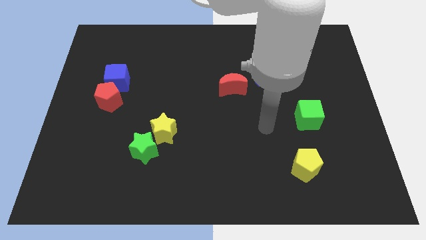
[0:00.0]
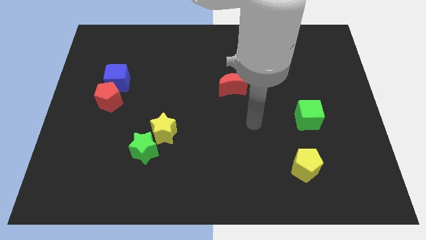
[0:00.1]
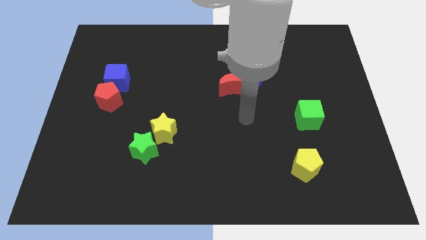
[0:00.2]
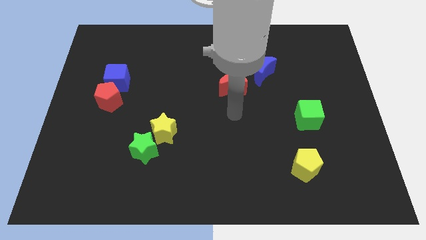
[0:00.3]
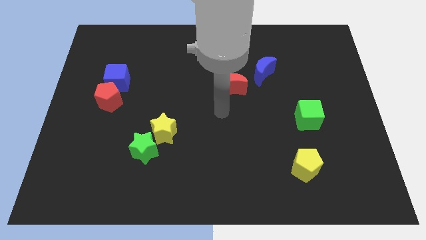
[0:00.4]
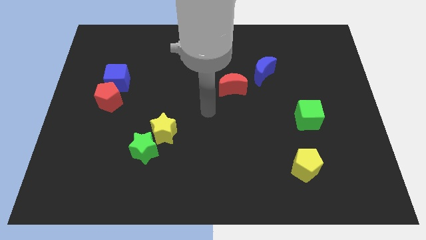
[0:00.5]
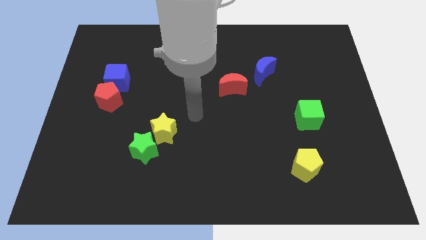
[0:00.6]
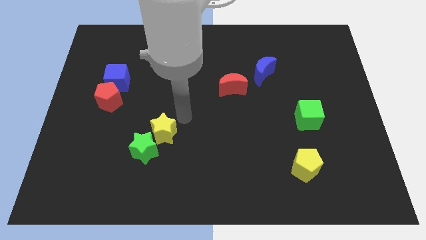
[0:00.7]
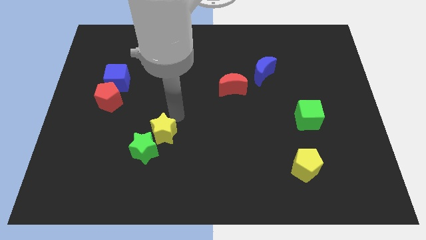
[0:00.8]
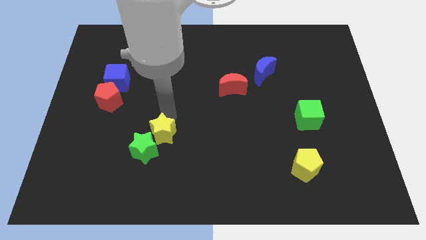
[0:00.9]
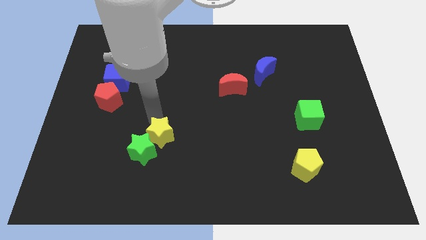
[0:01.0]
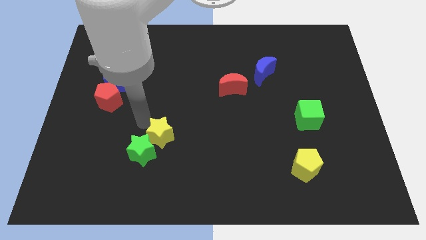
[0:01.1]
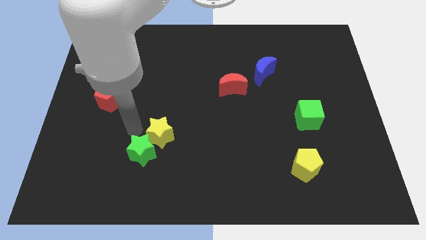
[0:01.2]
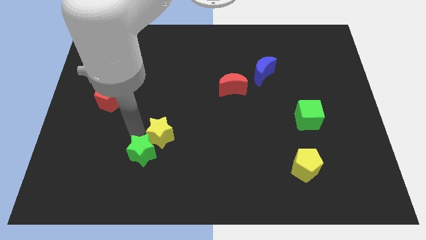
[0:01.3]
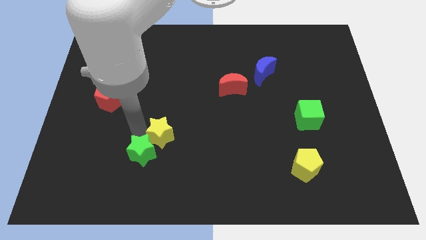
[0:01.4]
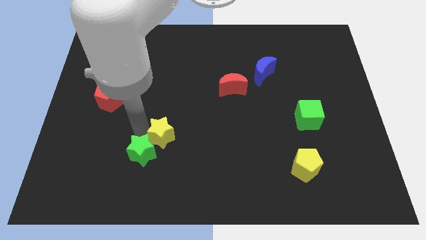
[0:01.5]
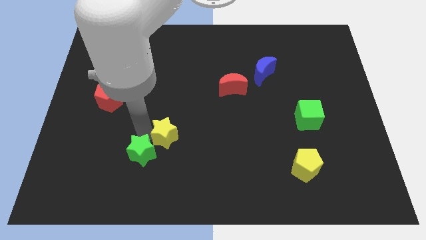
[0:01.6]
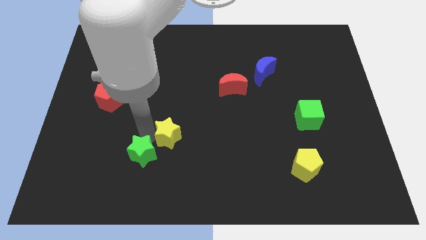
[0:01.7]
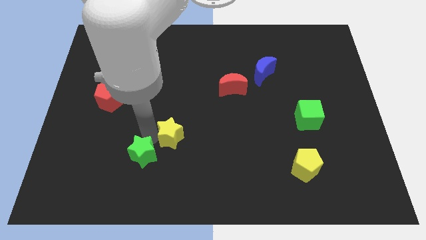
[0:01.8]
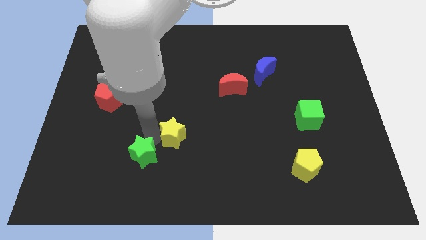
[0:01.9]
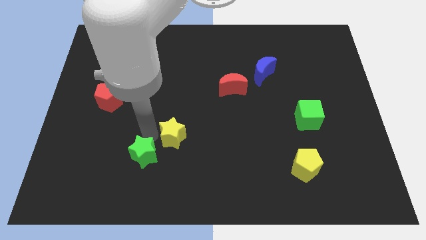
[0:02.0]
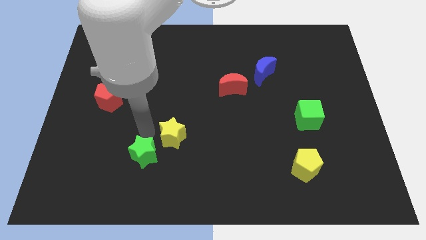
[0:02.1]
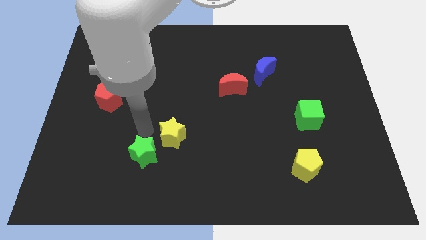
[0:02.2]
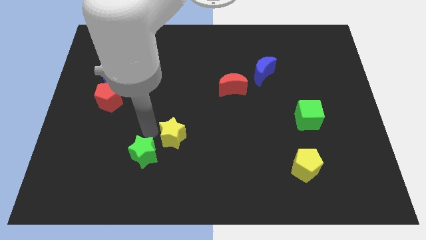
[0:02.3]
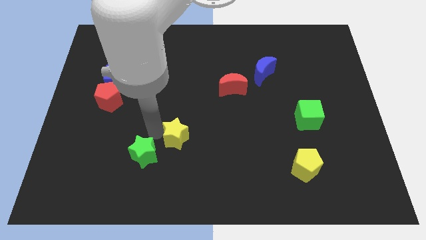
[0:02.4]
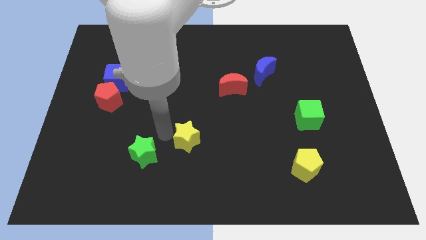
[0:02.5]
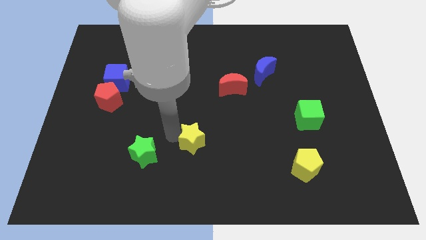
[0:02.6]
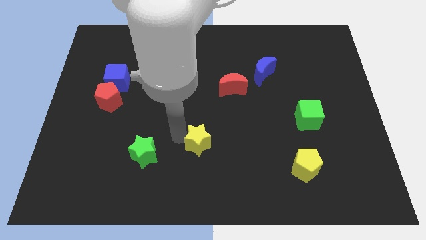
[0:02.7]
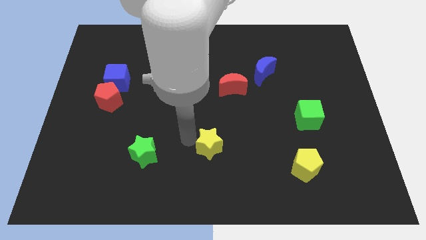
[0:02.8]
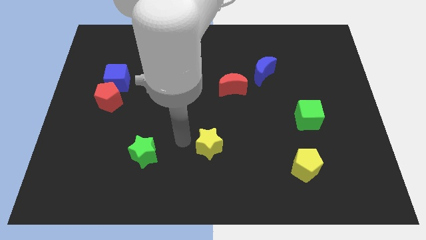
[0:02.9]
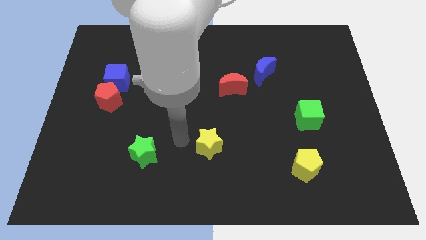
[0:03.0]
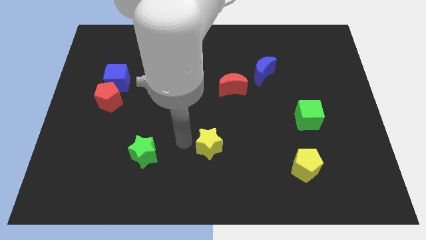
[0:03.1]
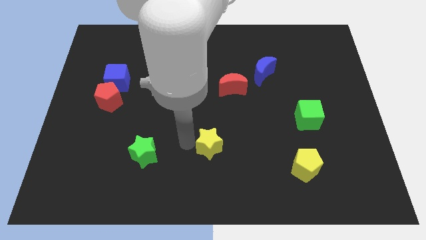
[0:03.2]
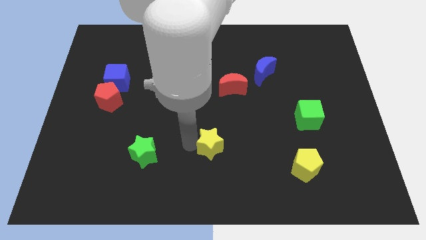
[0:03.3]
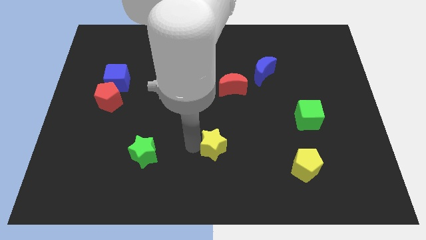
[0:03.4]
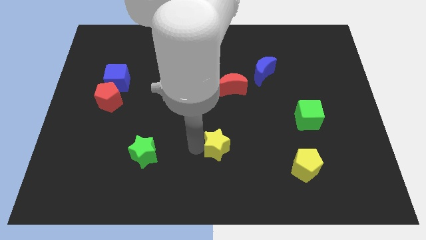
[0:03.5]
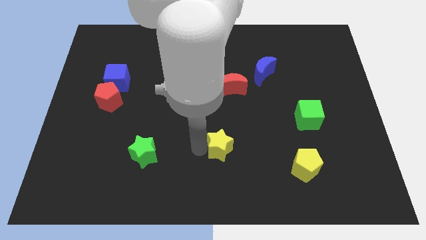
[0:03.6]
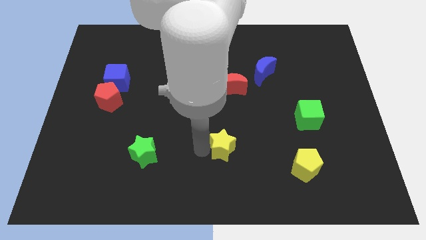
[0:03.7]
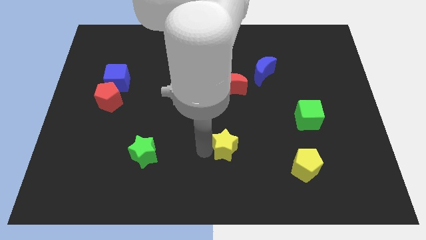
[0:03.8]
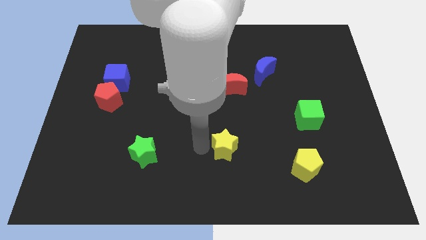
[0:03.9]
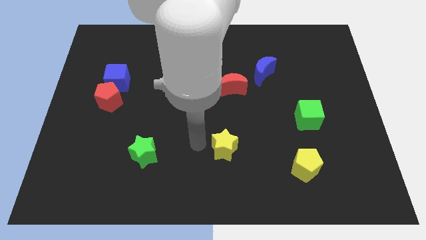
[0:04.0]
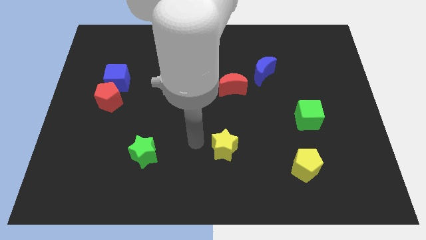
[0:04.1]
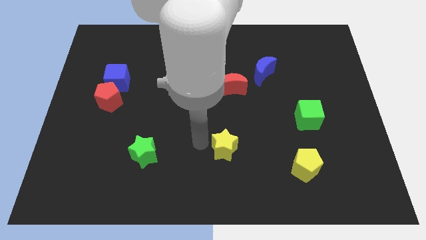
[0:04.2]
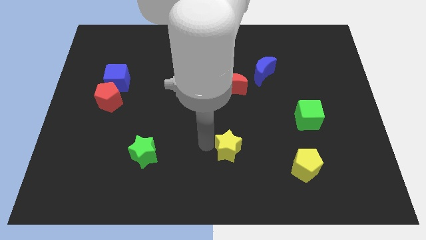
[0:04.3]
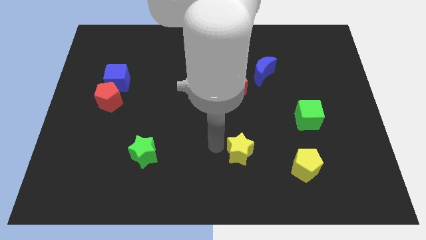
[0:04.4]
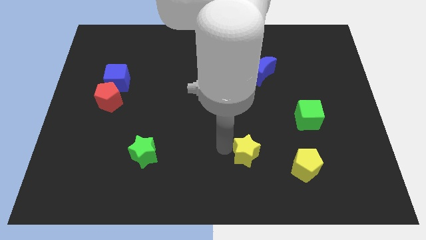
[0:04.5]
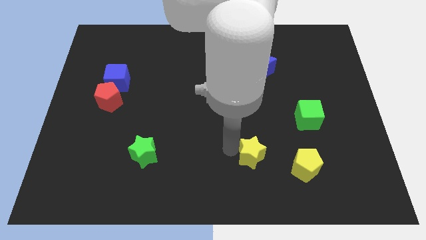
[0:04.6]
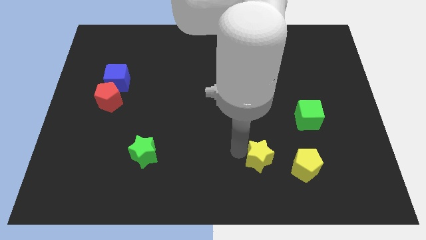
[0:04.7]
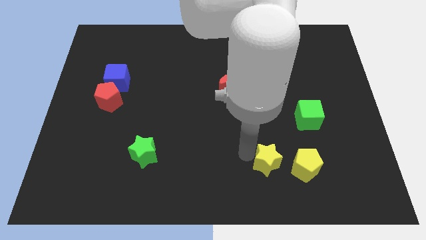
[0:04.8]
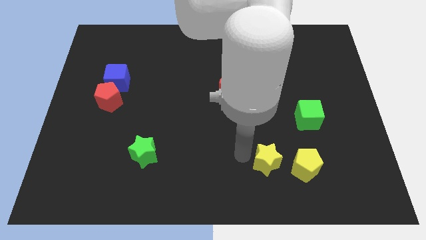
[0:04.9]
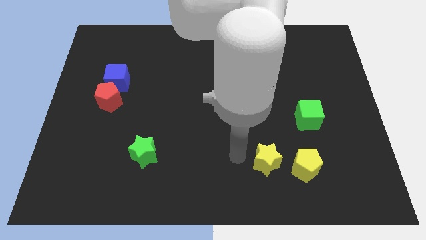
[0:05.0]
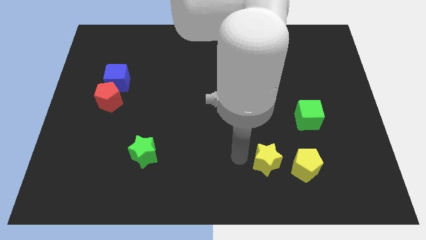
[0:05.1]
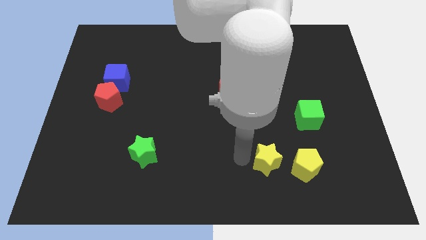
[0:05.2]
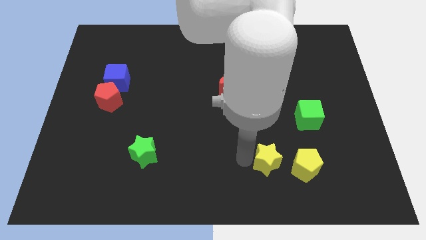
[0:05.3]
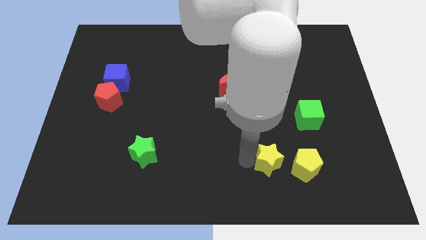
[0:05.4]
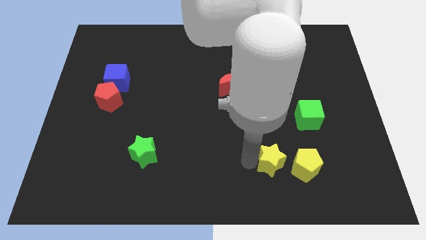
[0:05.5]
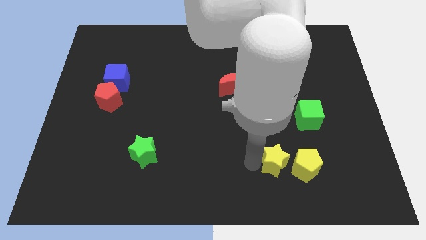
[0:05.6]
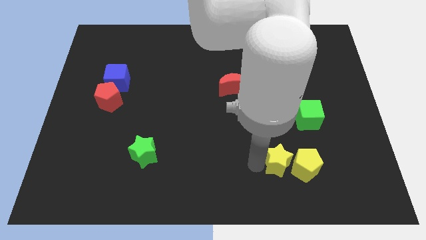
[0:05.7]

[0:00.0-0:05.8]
move the yellow star close to the yellow pentagon

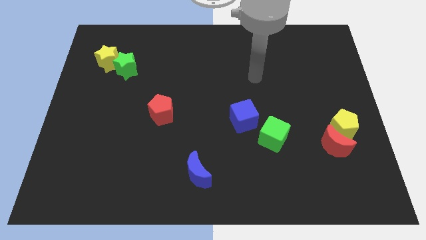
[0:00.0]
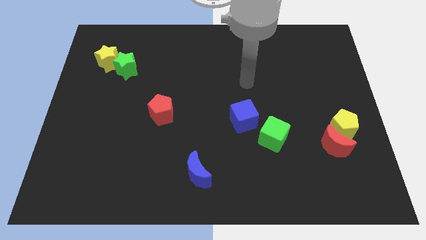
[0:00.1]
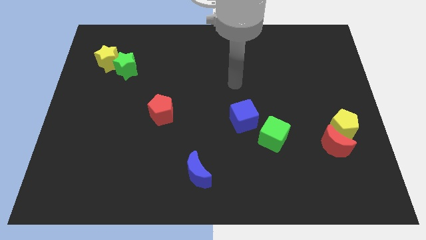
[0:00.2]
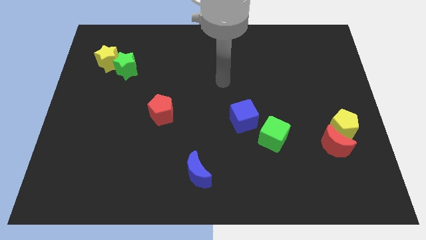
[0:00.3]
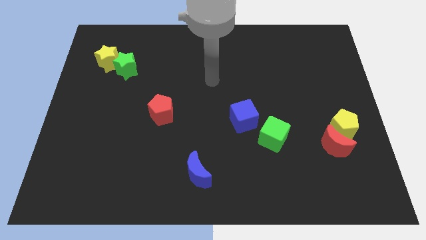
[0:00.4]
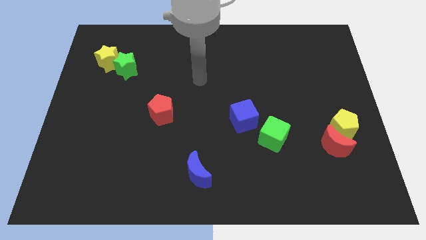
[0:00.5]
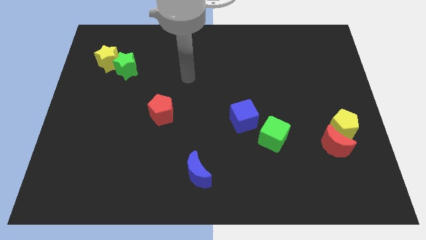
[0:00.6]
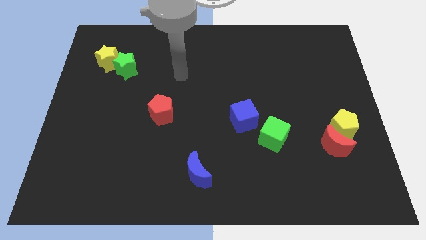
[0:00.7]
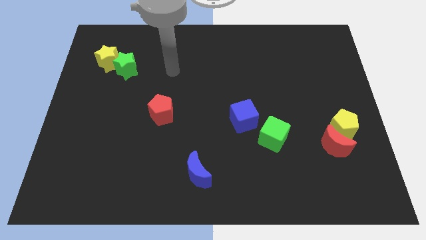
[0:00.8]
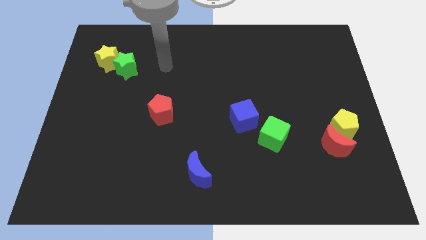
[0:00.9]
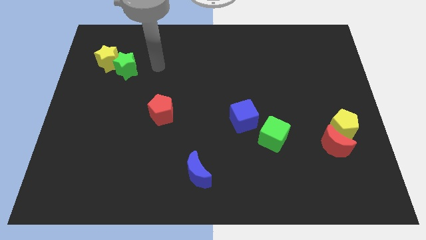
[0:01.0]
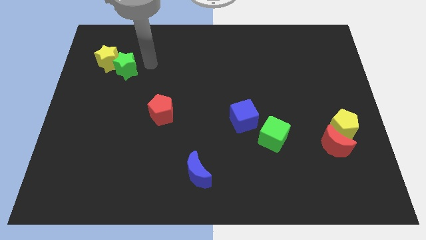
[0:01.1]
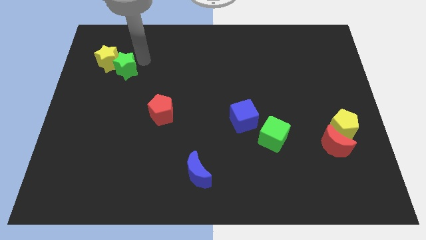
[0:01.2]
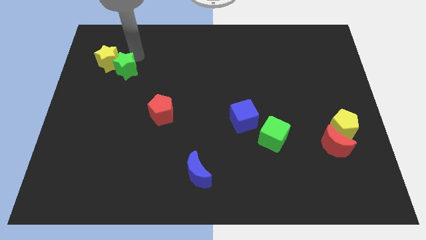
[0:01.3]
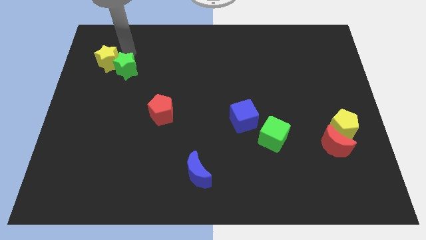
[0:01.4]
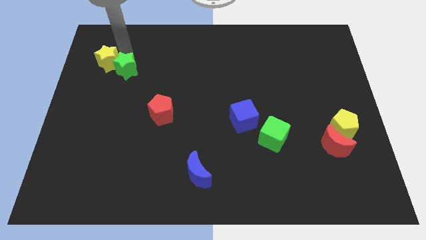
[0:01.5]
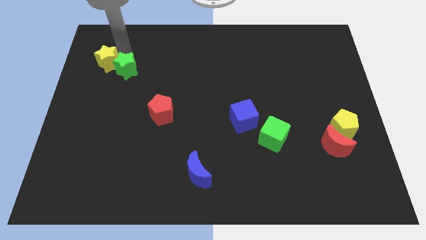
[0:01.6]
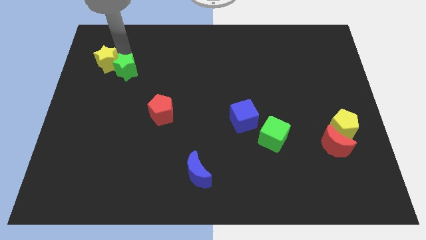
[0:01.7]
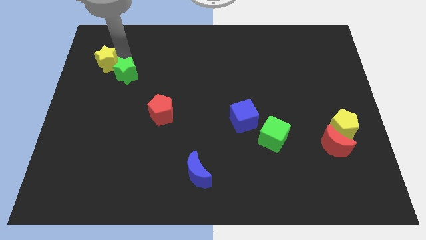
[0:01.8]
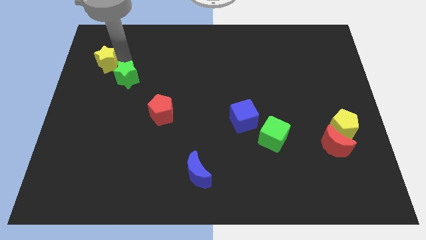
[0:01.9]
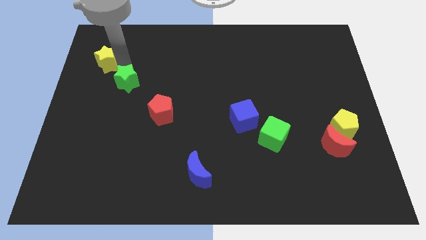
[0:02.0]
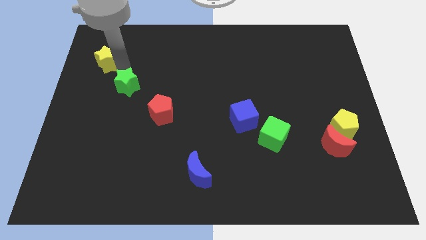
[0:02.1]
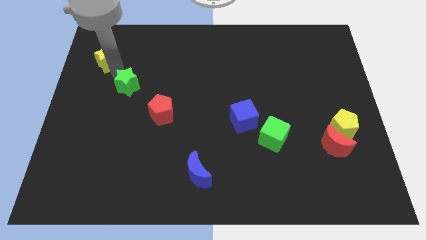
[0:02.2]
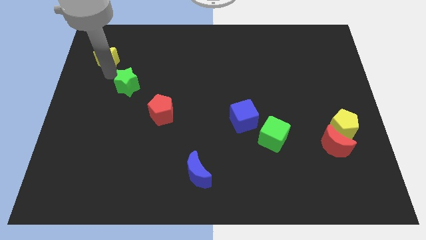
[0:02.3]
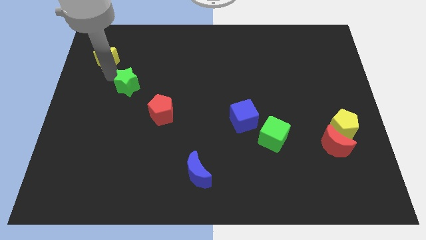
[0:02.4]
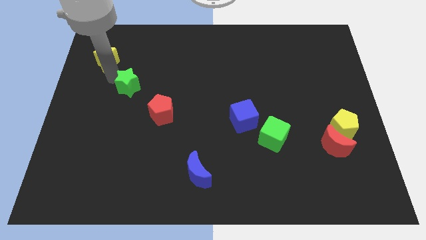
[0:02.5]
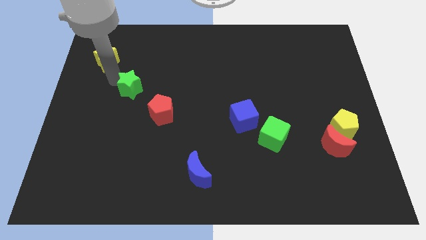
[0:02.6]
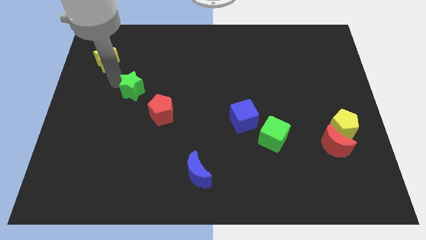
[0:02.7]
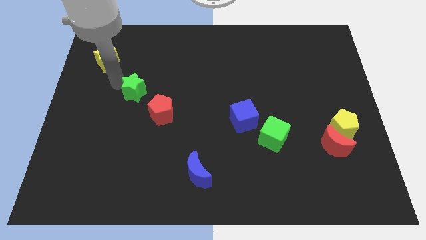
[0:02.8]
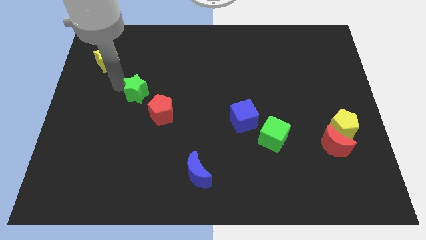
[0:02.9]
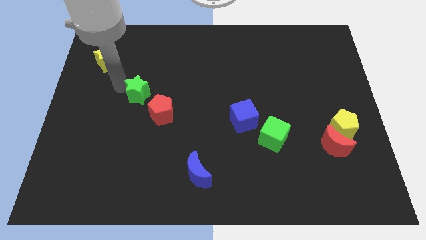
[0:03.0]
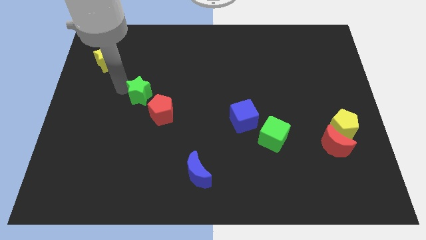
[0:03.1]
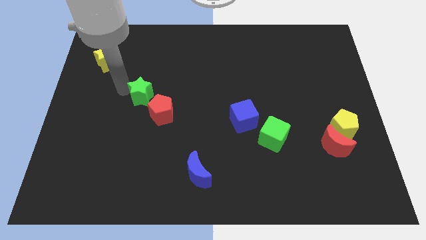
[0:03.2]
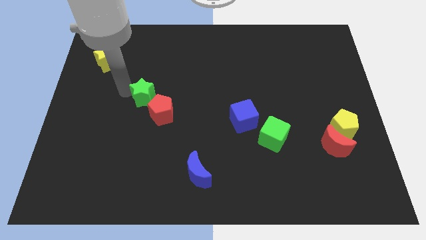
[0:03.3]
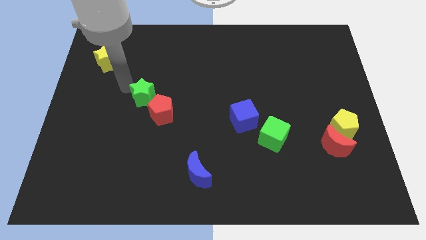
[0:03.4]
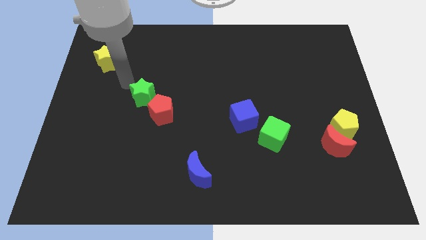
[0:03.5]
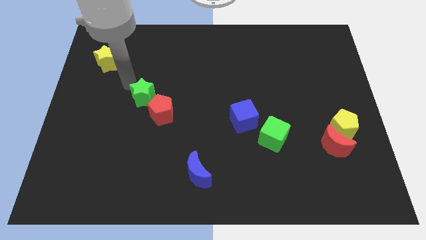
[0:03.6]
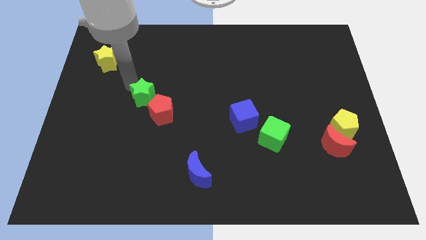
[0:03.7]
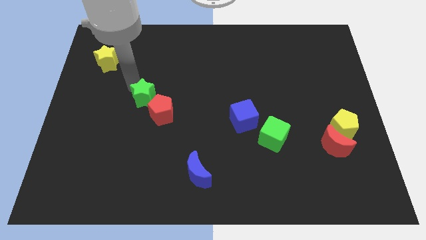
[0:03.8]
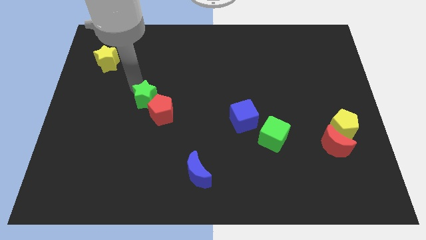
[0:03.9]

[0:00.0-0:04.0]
move the green star next to the red pentagon
